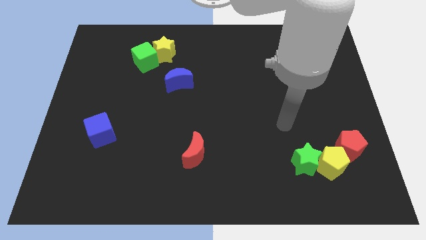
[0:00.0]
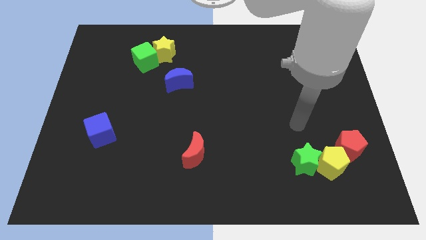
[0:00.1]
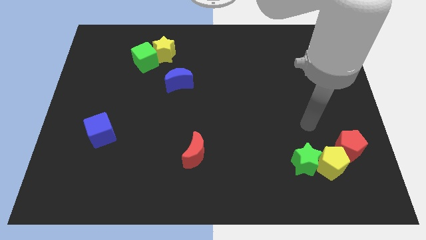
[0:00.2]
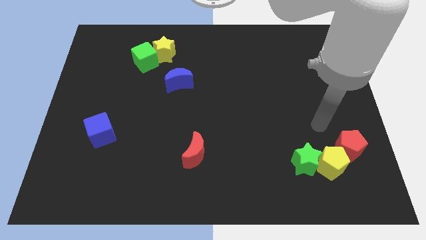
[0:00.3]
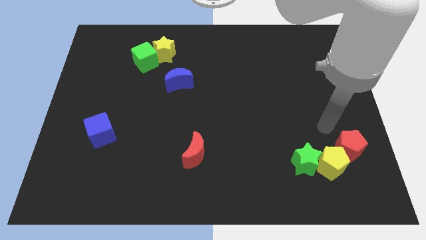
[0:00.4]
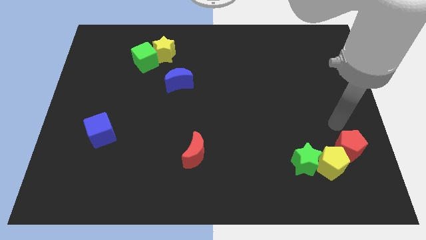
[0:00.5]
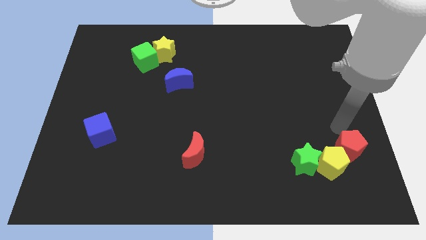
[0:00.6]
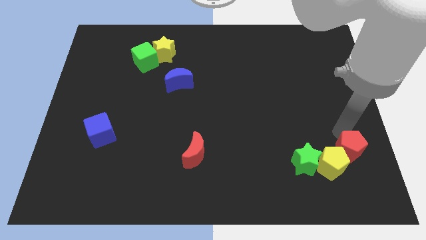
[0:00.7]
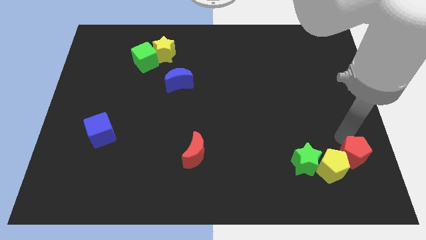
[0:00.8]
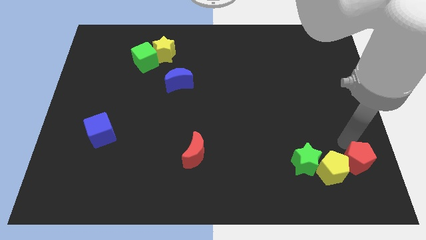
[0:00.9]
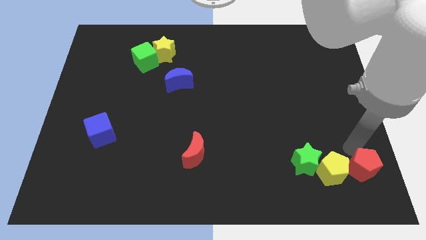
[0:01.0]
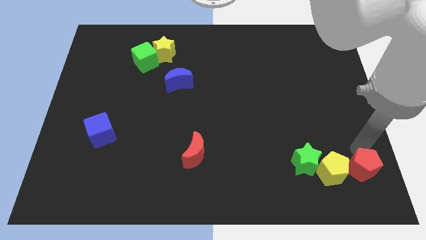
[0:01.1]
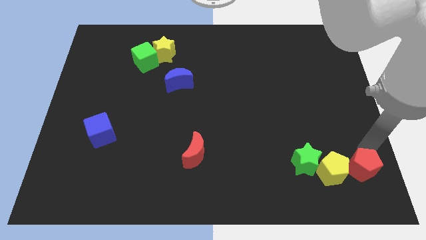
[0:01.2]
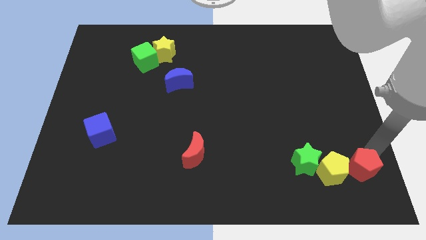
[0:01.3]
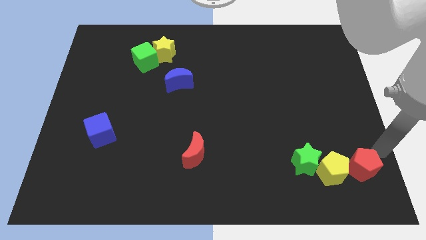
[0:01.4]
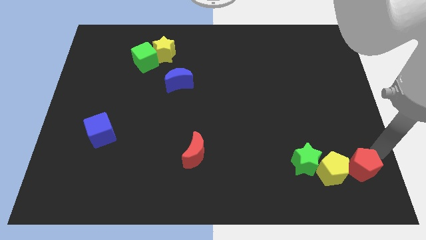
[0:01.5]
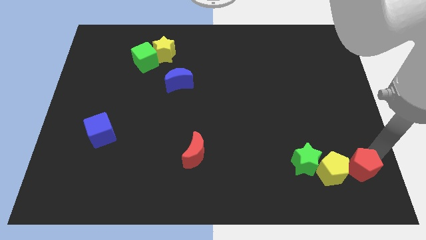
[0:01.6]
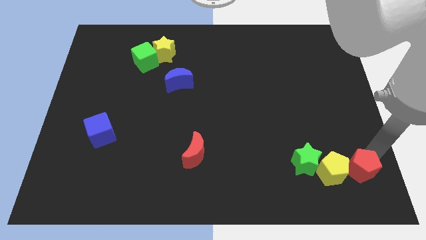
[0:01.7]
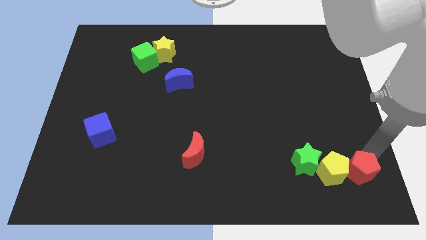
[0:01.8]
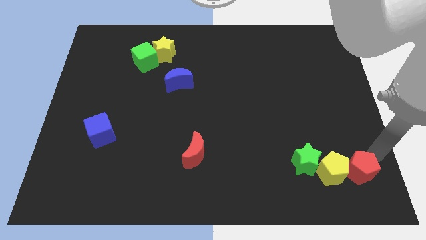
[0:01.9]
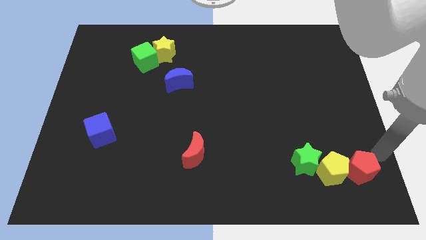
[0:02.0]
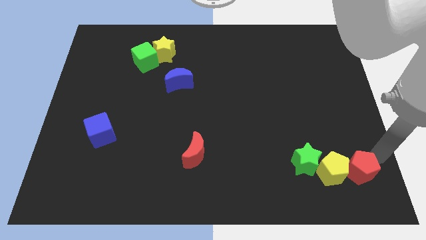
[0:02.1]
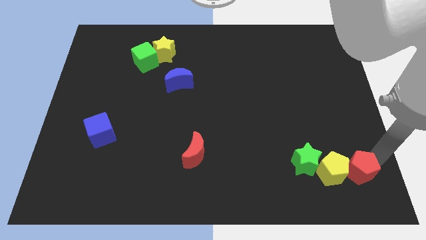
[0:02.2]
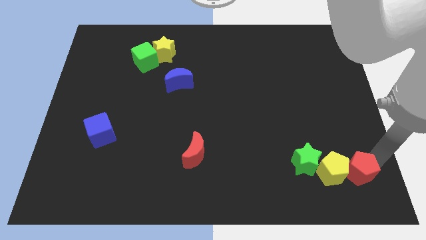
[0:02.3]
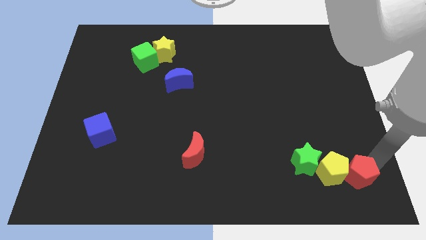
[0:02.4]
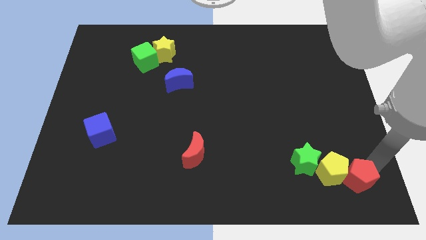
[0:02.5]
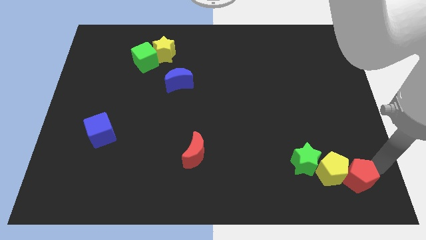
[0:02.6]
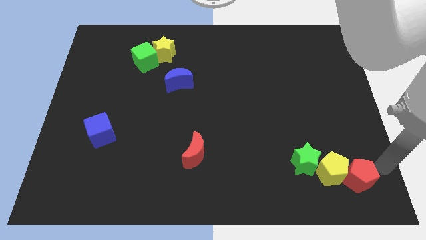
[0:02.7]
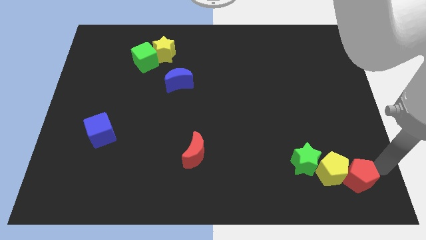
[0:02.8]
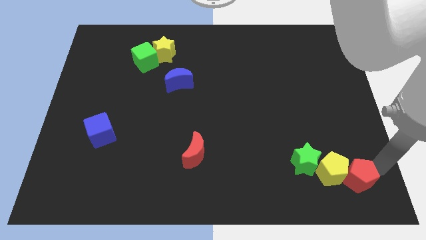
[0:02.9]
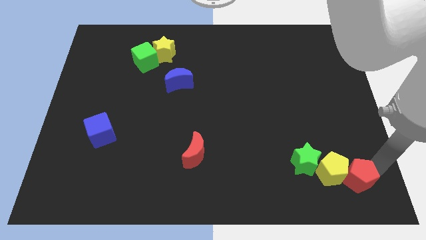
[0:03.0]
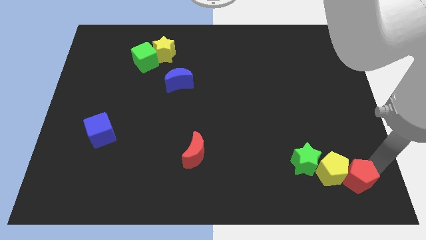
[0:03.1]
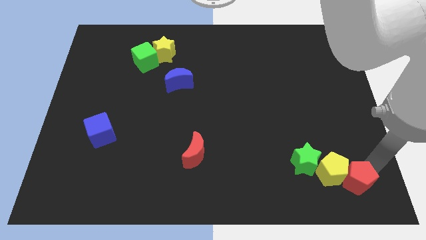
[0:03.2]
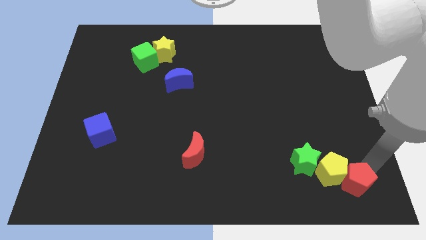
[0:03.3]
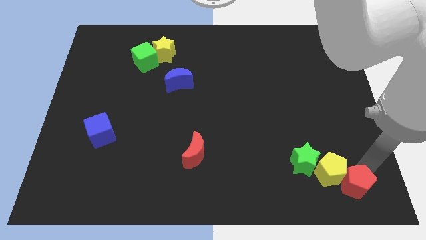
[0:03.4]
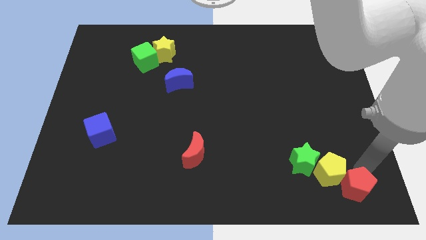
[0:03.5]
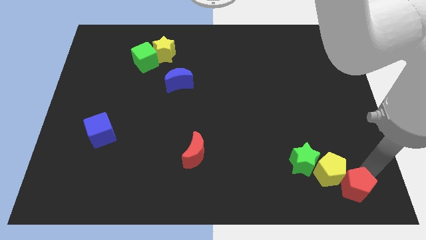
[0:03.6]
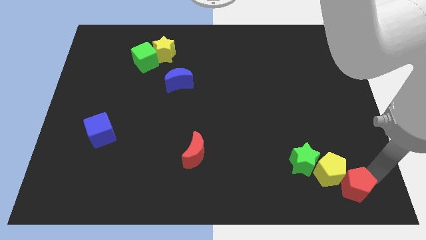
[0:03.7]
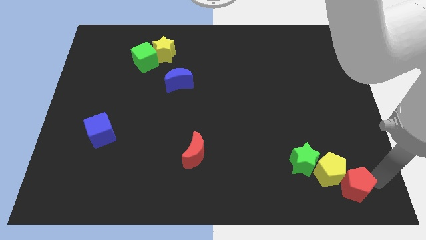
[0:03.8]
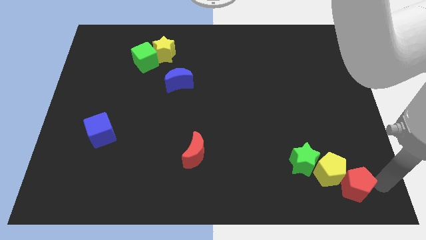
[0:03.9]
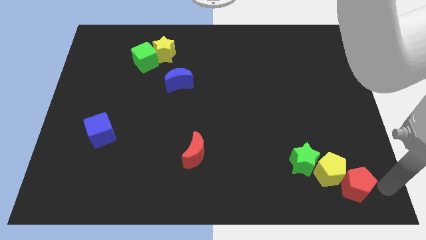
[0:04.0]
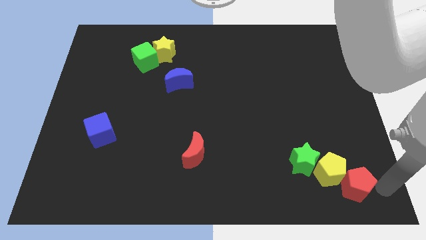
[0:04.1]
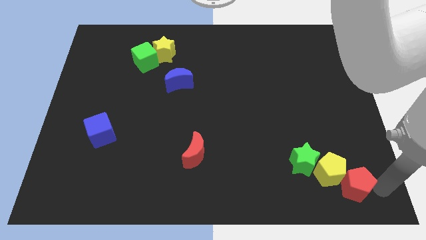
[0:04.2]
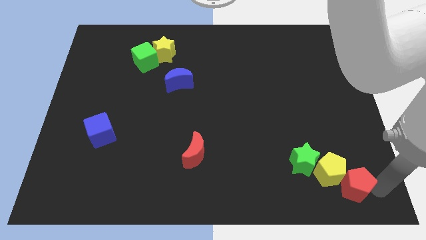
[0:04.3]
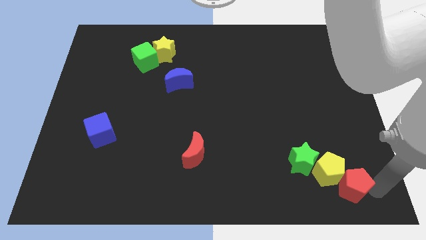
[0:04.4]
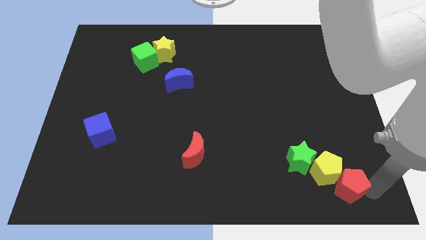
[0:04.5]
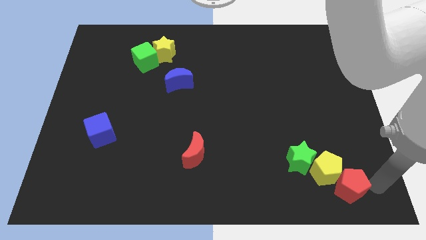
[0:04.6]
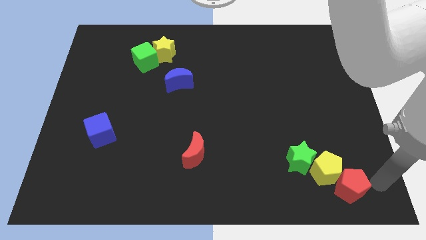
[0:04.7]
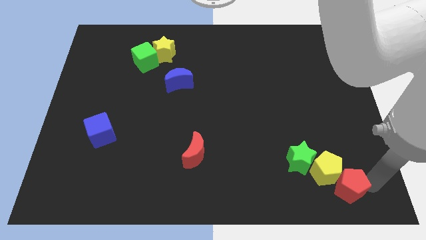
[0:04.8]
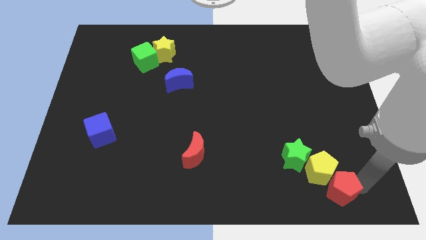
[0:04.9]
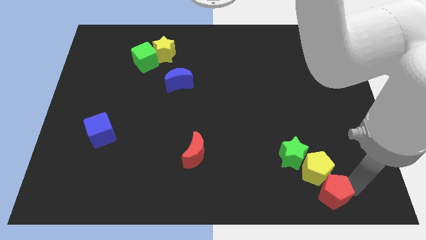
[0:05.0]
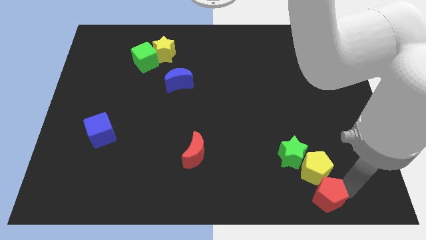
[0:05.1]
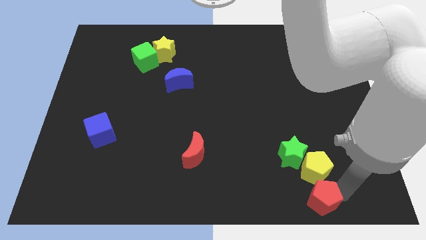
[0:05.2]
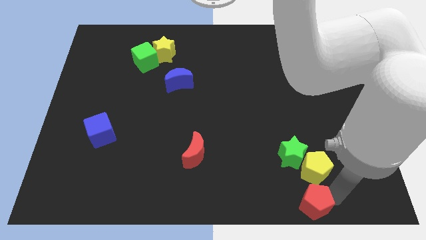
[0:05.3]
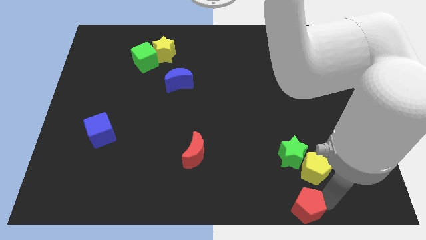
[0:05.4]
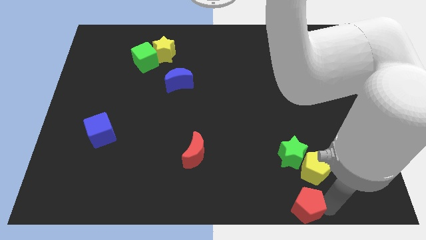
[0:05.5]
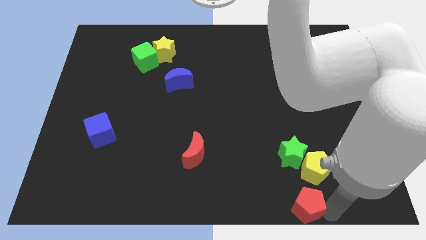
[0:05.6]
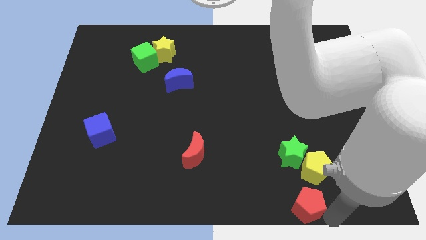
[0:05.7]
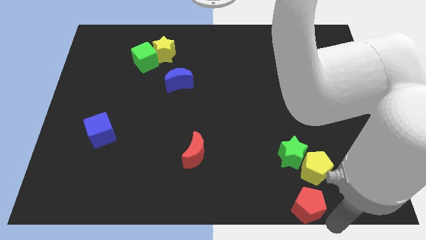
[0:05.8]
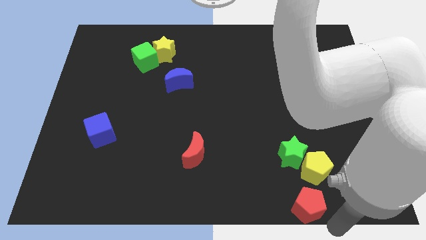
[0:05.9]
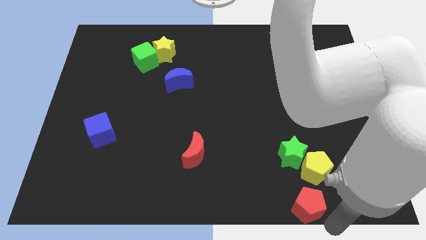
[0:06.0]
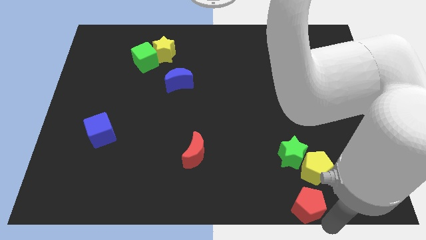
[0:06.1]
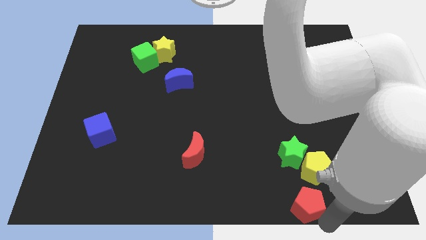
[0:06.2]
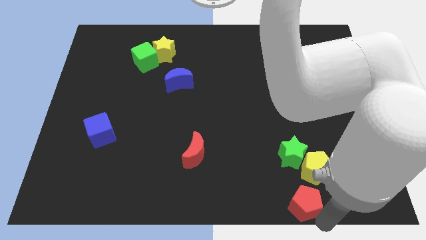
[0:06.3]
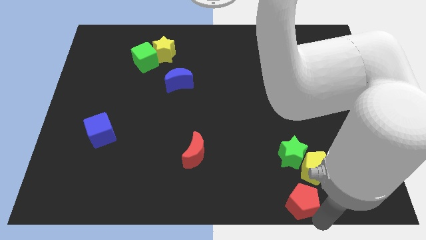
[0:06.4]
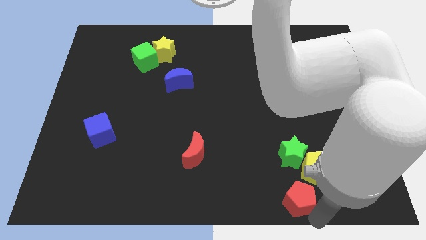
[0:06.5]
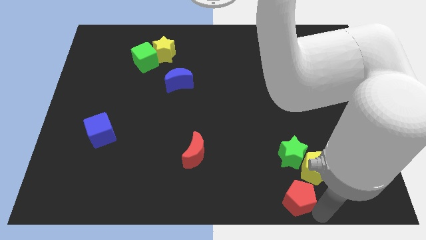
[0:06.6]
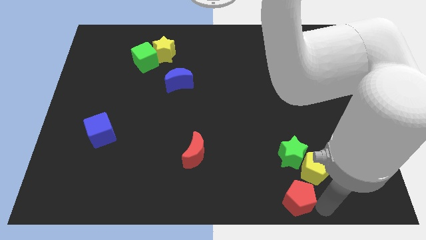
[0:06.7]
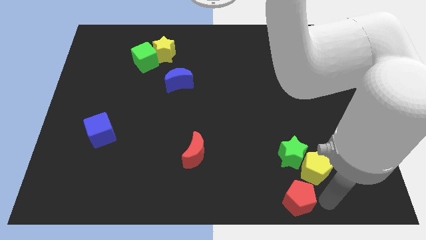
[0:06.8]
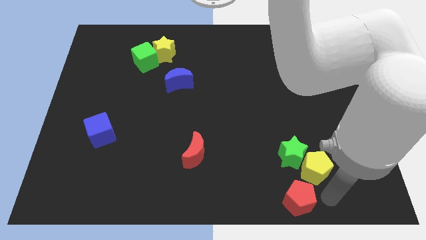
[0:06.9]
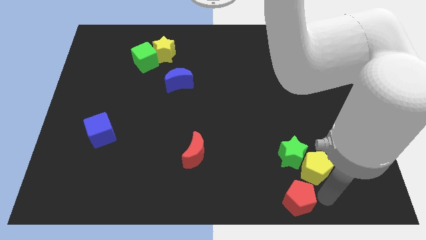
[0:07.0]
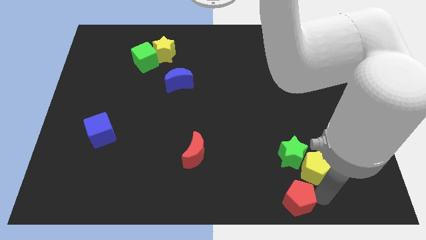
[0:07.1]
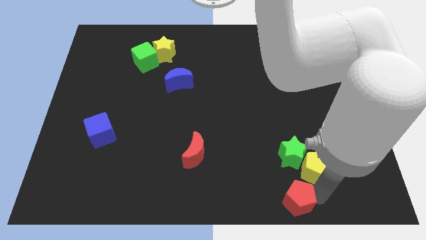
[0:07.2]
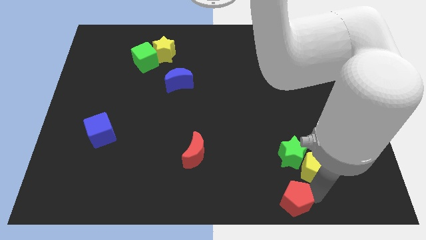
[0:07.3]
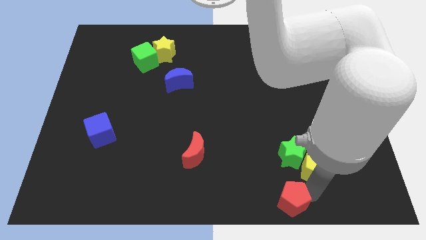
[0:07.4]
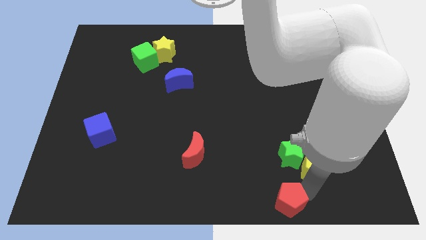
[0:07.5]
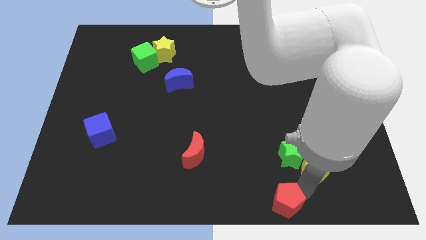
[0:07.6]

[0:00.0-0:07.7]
slide the red pentagon to the bottom
